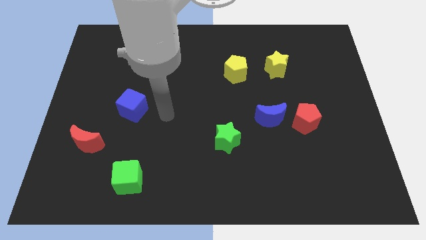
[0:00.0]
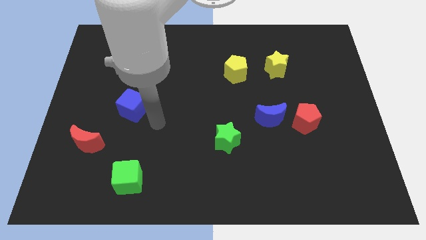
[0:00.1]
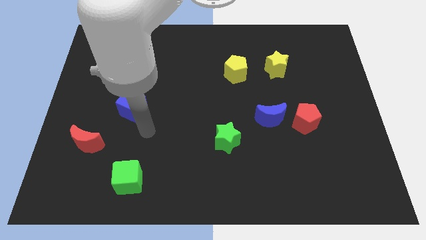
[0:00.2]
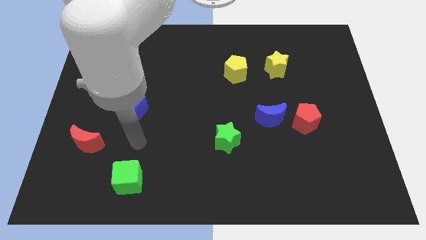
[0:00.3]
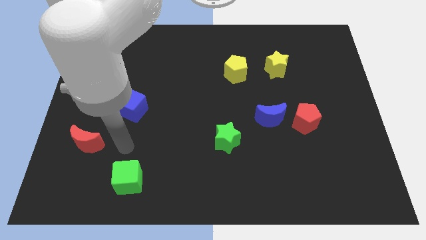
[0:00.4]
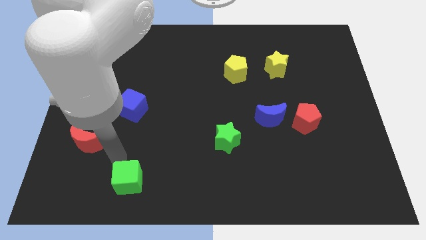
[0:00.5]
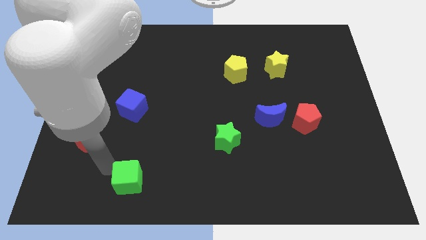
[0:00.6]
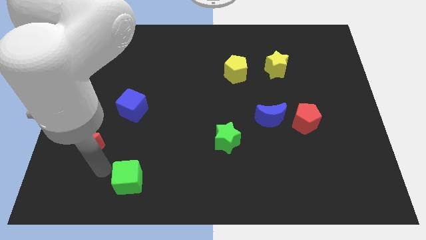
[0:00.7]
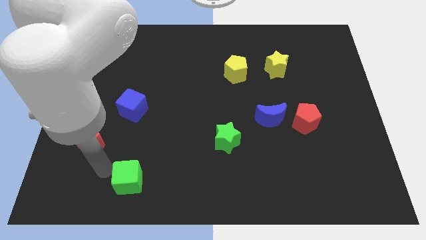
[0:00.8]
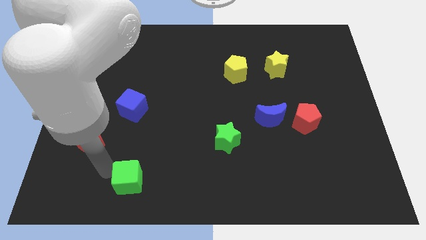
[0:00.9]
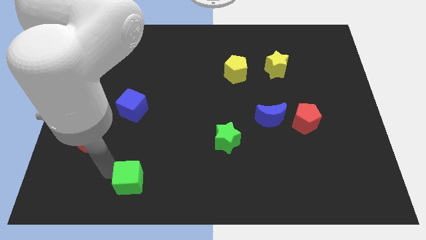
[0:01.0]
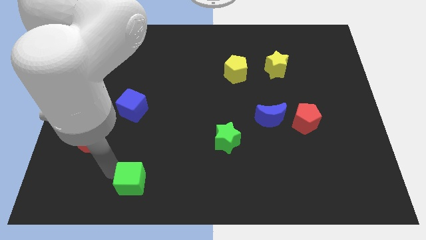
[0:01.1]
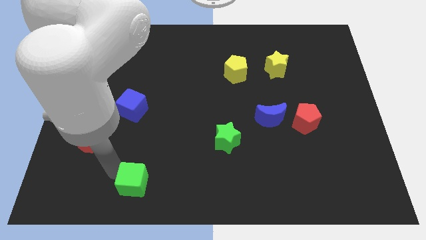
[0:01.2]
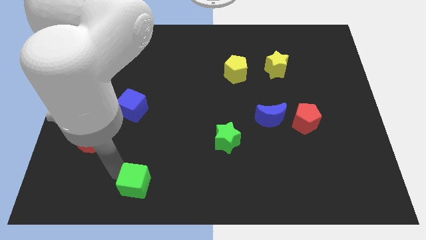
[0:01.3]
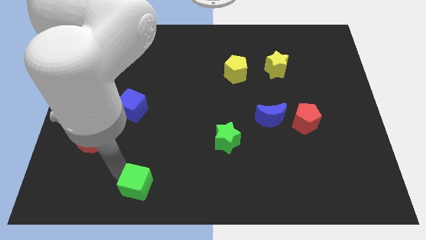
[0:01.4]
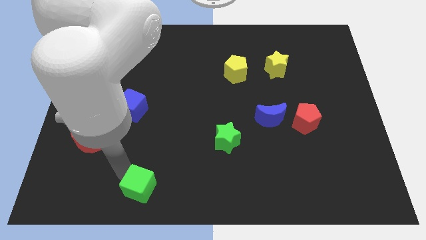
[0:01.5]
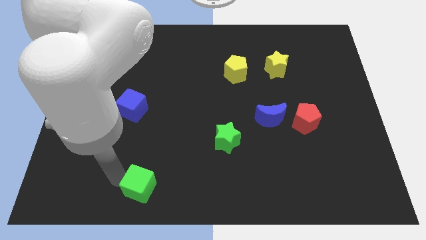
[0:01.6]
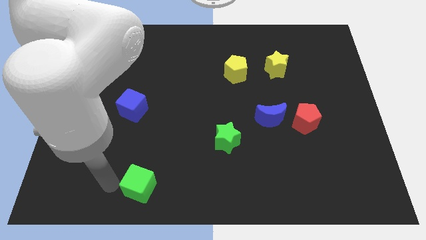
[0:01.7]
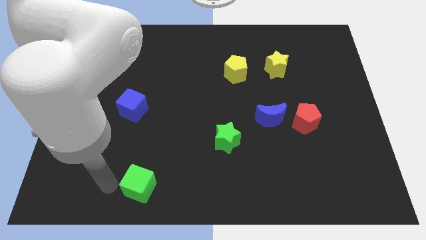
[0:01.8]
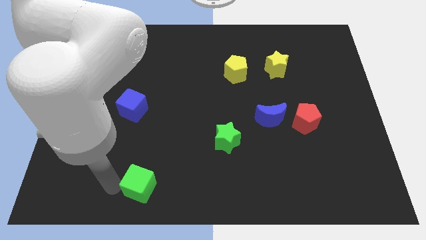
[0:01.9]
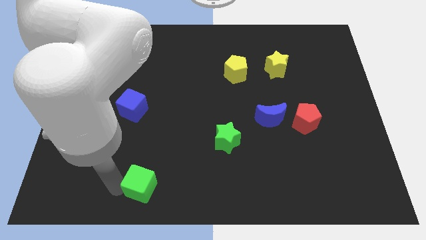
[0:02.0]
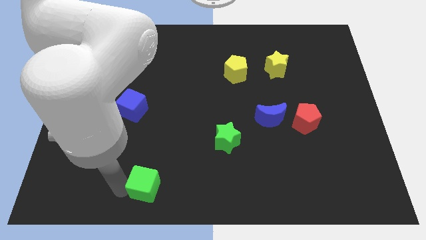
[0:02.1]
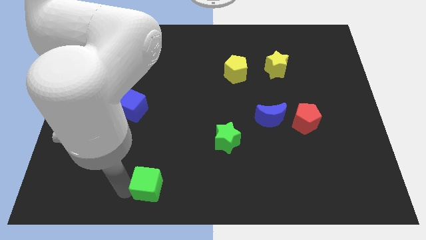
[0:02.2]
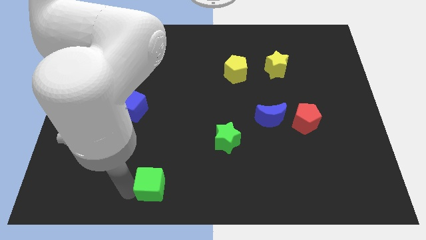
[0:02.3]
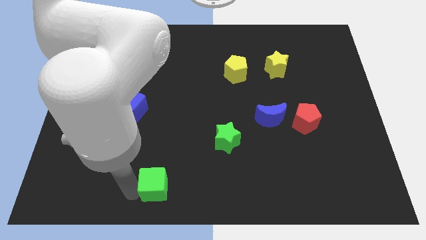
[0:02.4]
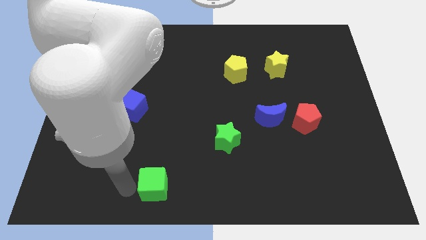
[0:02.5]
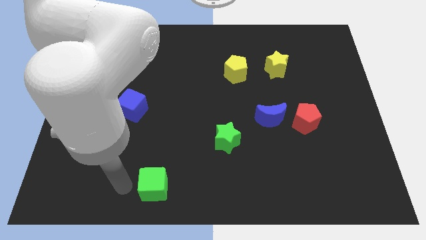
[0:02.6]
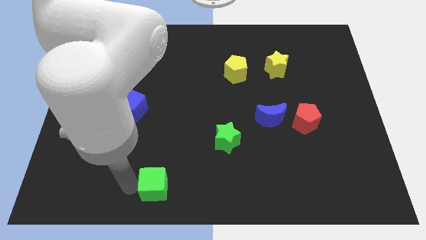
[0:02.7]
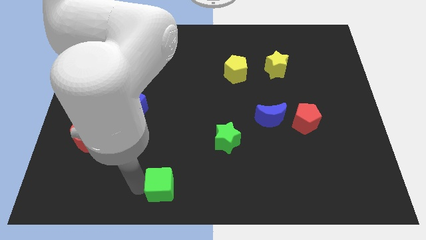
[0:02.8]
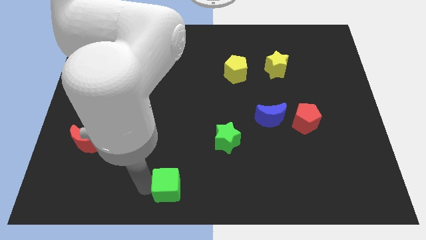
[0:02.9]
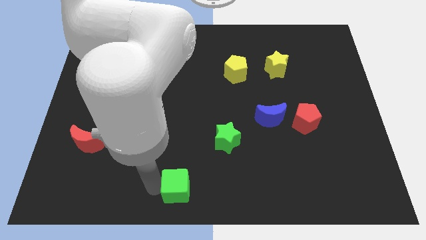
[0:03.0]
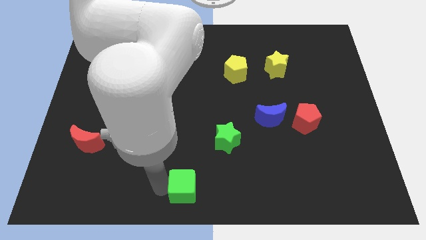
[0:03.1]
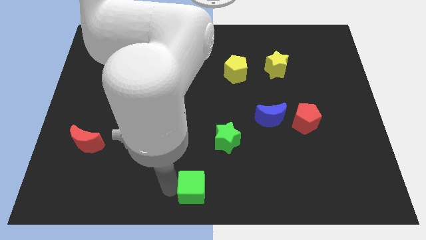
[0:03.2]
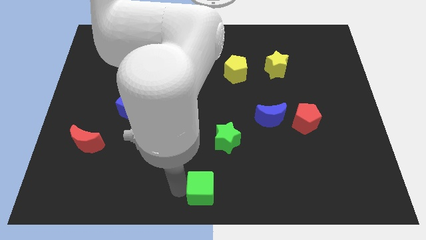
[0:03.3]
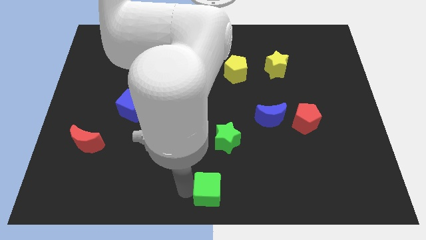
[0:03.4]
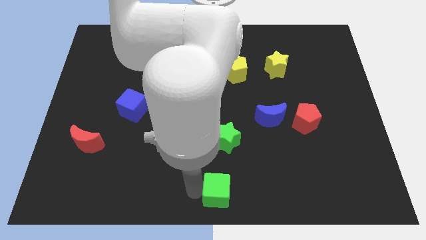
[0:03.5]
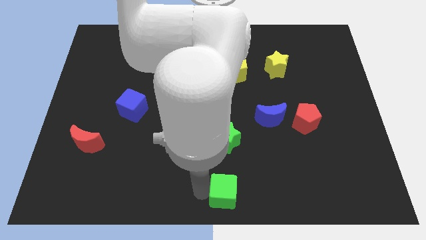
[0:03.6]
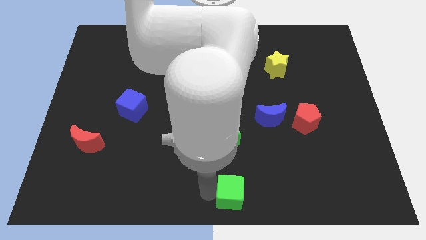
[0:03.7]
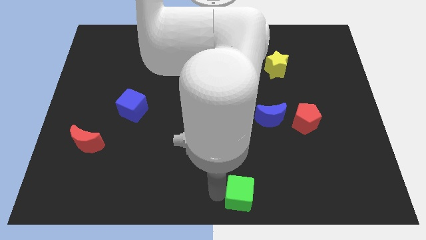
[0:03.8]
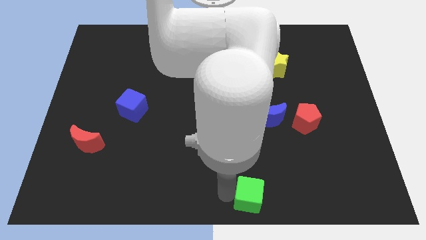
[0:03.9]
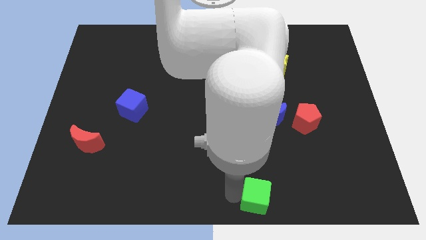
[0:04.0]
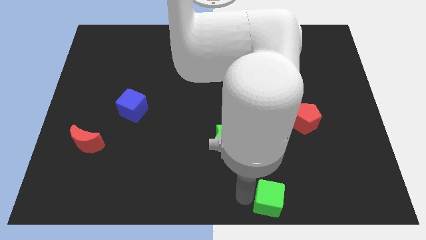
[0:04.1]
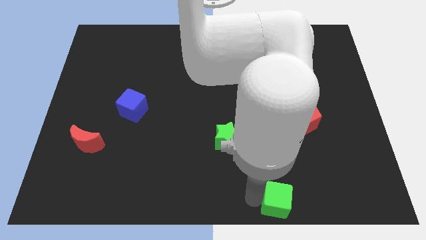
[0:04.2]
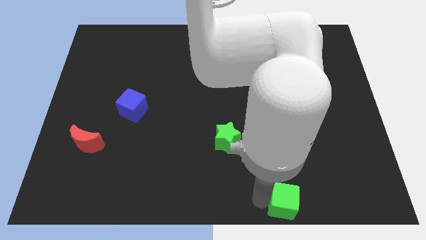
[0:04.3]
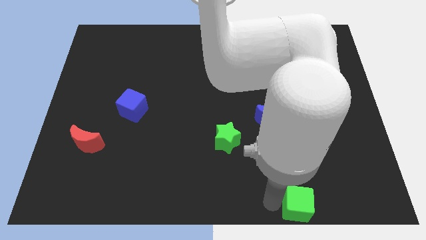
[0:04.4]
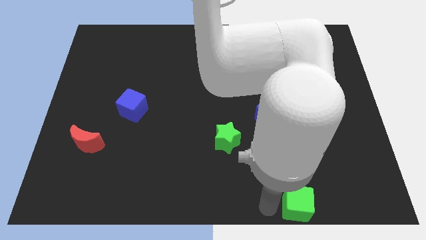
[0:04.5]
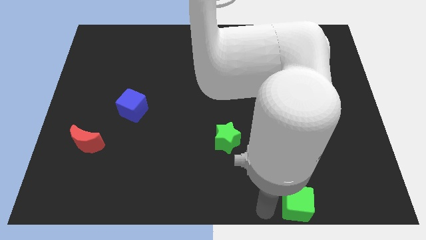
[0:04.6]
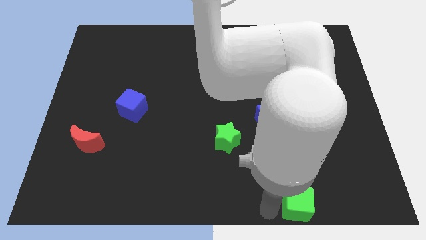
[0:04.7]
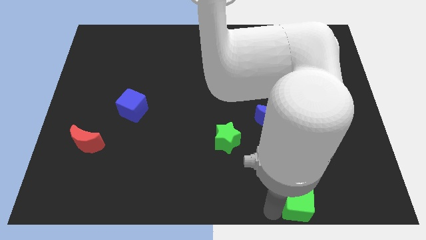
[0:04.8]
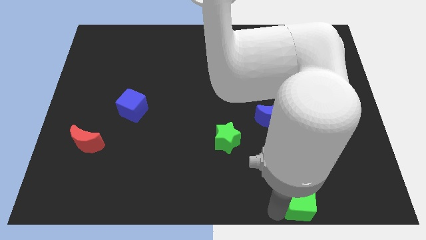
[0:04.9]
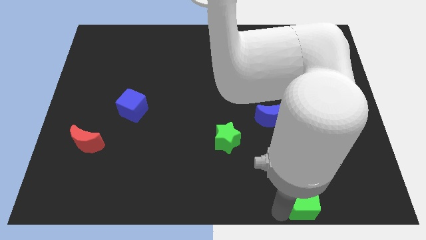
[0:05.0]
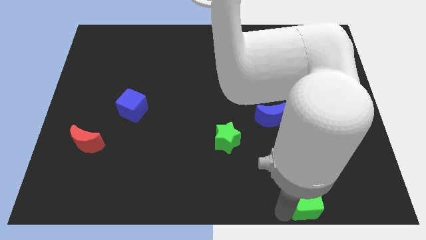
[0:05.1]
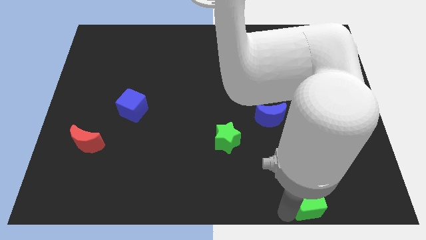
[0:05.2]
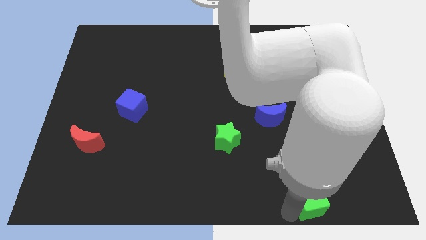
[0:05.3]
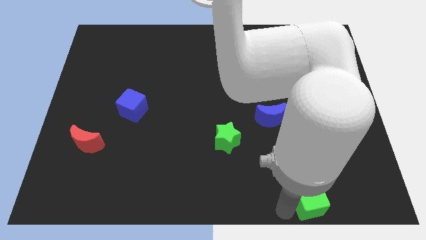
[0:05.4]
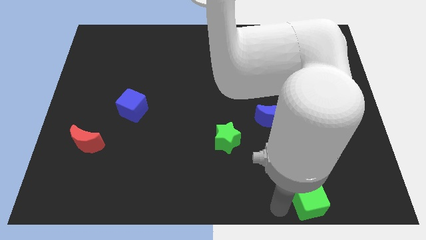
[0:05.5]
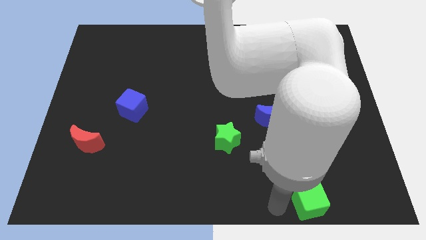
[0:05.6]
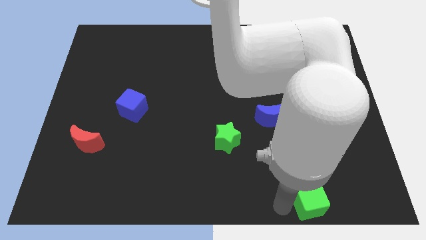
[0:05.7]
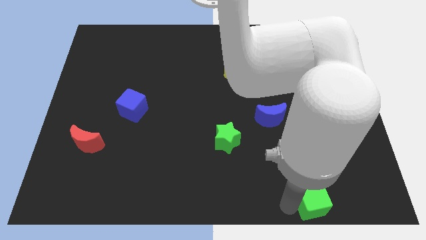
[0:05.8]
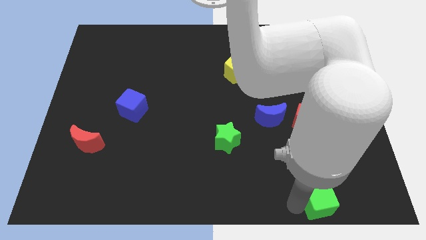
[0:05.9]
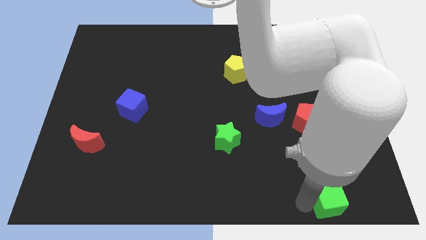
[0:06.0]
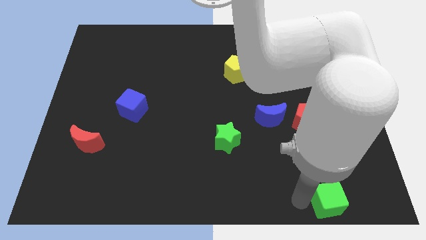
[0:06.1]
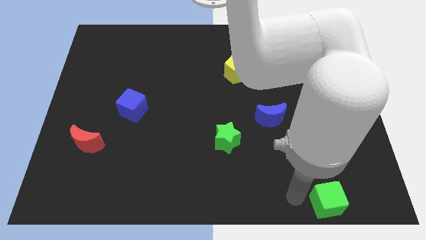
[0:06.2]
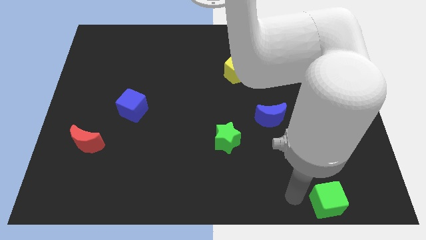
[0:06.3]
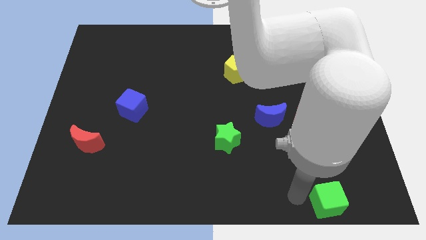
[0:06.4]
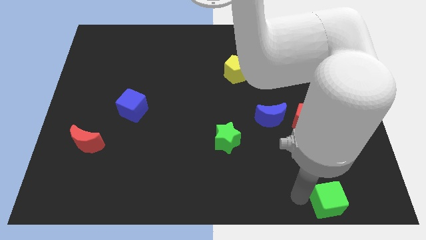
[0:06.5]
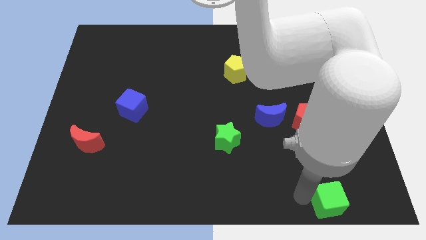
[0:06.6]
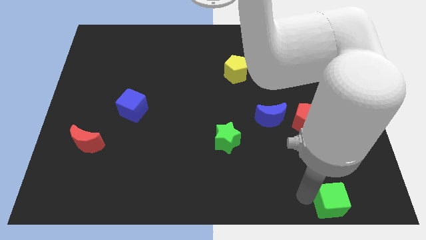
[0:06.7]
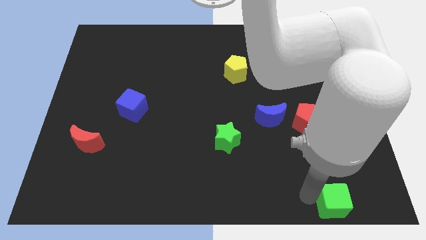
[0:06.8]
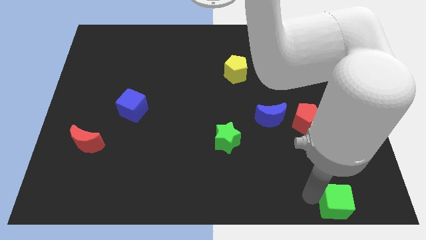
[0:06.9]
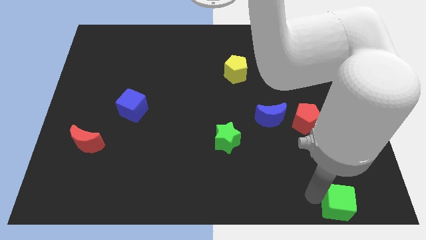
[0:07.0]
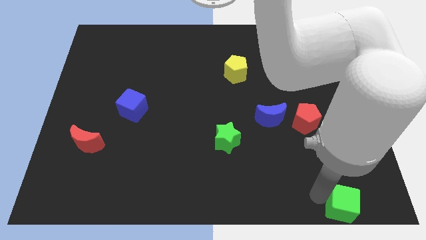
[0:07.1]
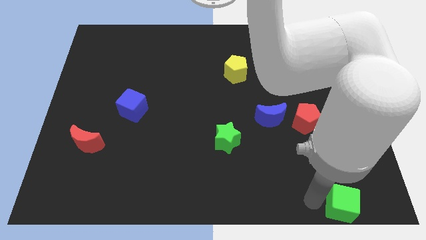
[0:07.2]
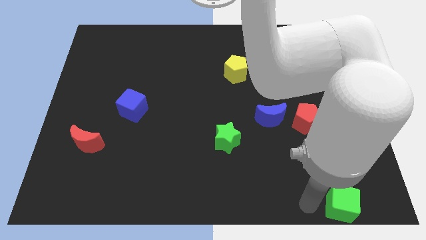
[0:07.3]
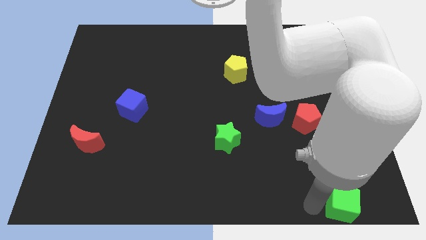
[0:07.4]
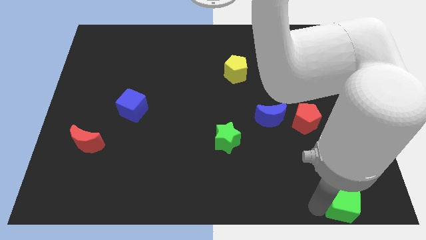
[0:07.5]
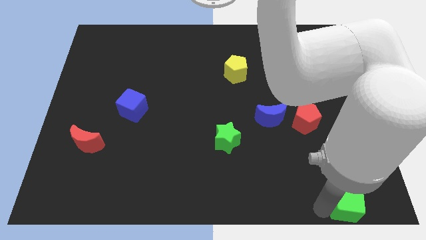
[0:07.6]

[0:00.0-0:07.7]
slide the green cube to the bottom right corner
